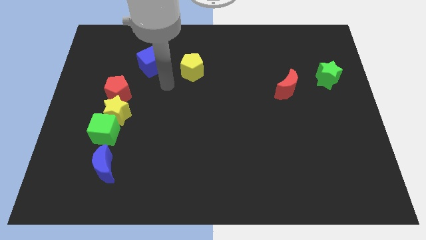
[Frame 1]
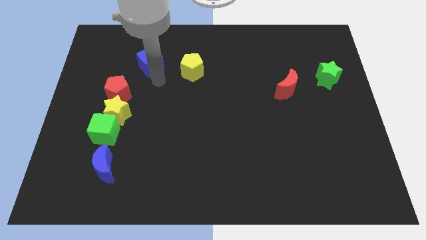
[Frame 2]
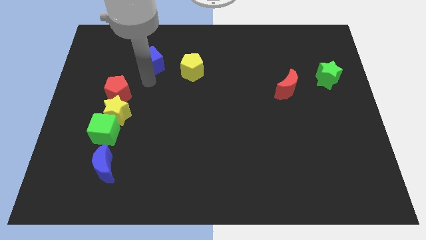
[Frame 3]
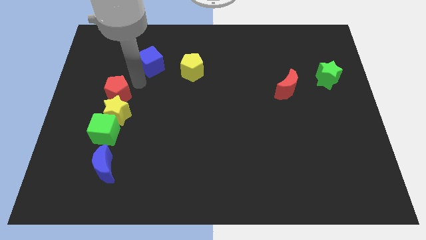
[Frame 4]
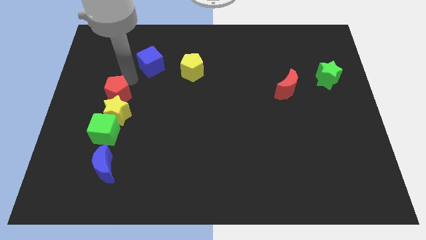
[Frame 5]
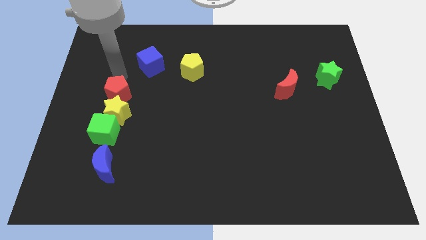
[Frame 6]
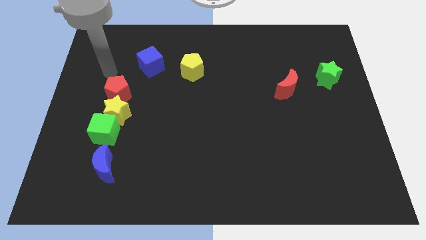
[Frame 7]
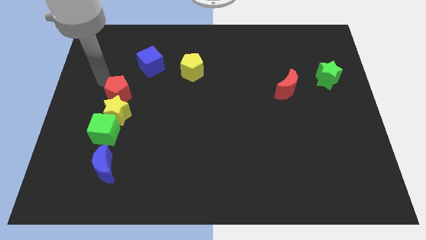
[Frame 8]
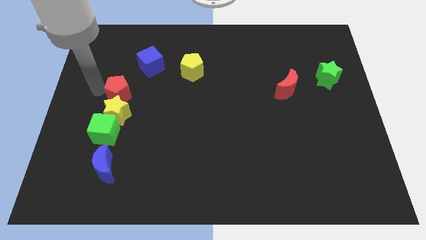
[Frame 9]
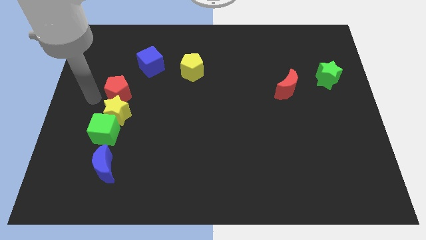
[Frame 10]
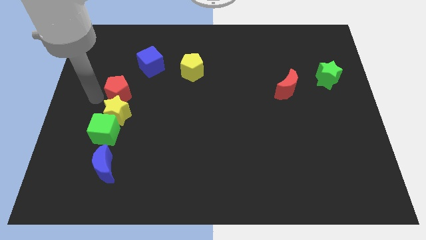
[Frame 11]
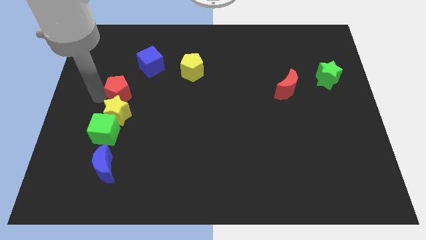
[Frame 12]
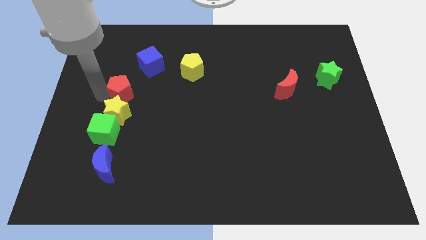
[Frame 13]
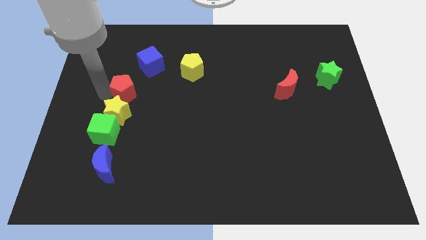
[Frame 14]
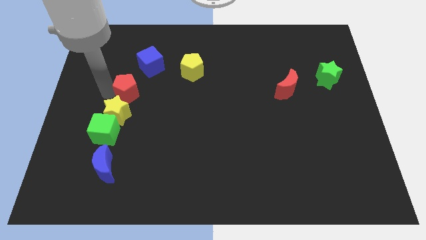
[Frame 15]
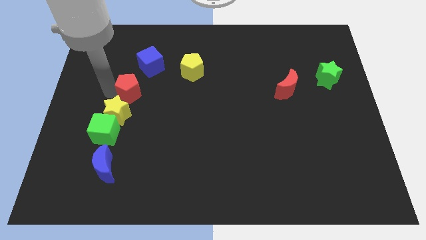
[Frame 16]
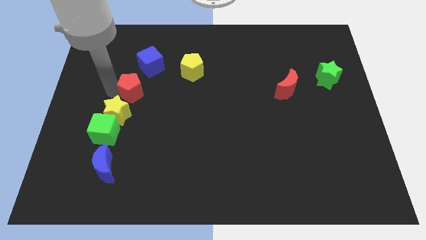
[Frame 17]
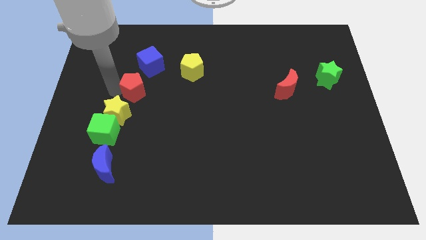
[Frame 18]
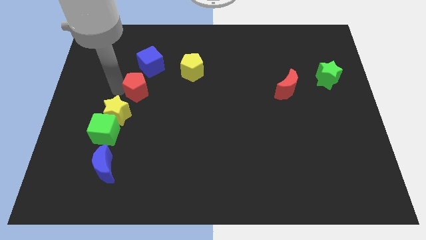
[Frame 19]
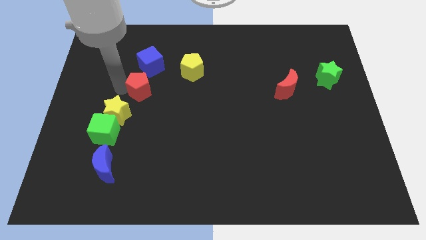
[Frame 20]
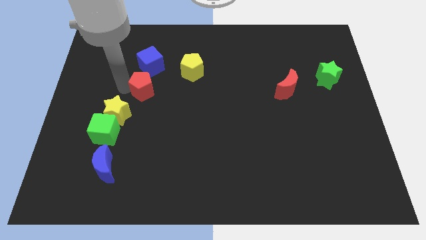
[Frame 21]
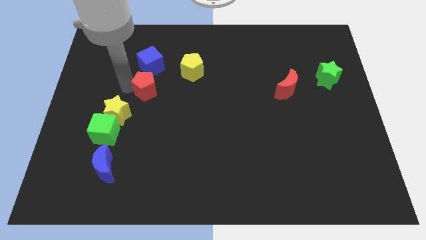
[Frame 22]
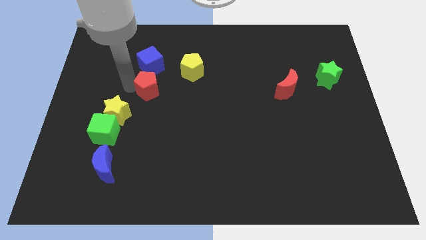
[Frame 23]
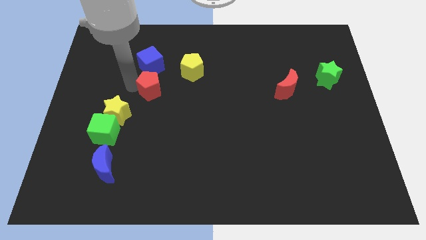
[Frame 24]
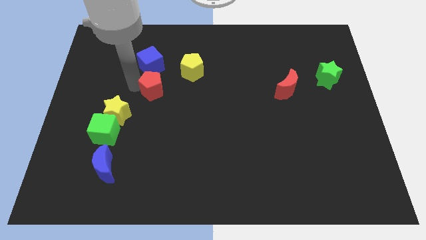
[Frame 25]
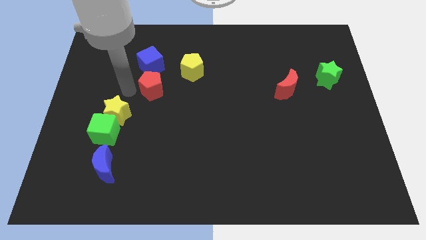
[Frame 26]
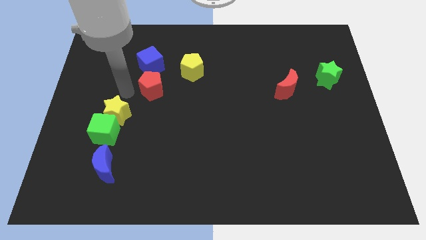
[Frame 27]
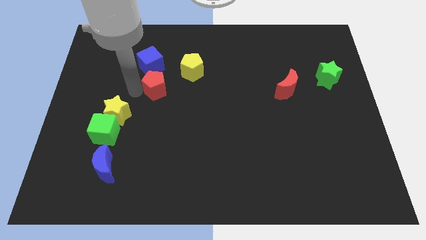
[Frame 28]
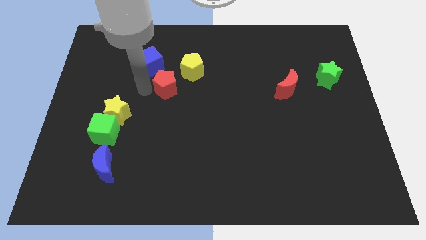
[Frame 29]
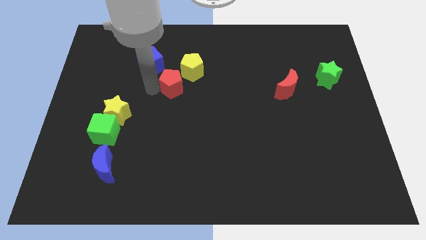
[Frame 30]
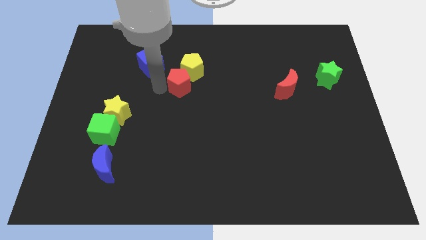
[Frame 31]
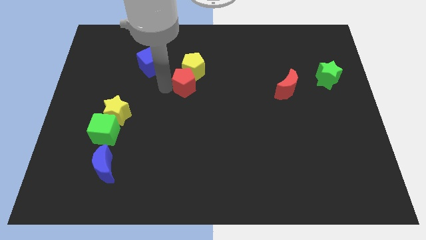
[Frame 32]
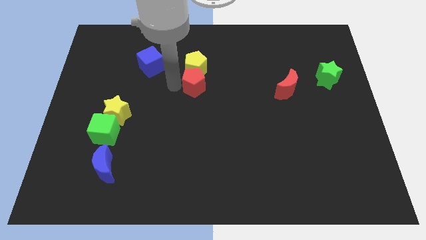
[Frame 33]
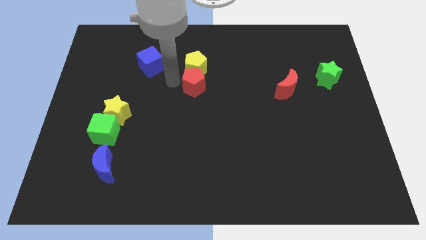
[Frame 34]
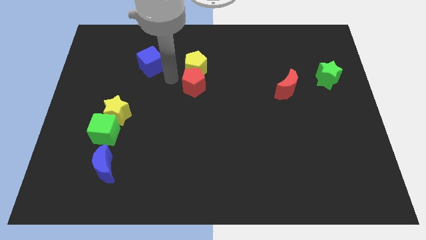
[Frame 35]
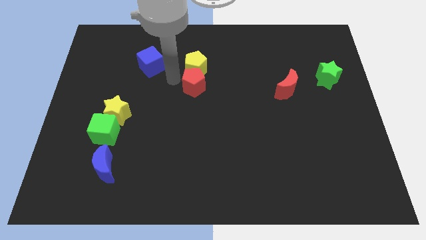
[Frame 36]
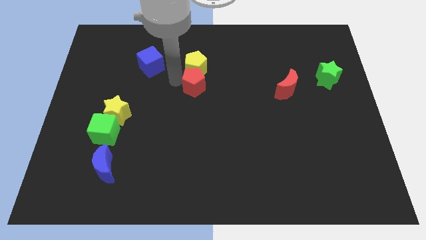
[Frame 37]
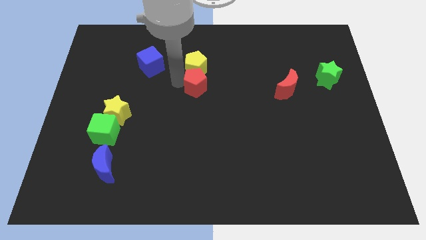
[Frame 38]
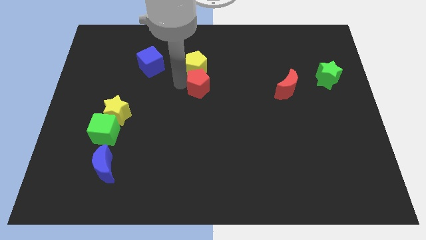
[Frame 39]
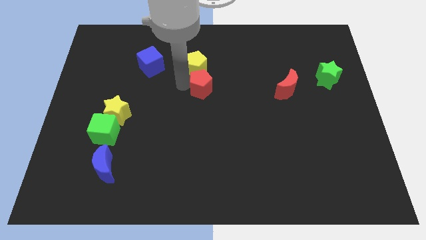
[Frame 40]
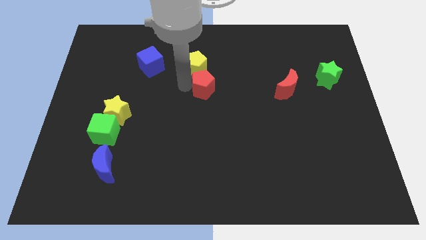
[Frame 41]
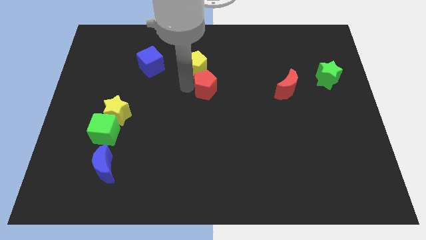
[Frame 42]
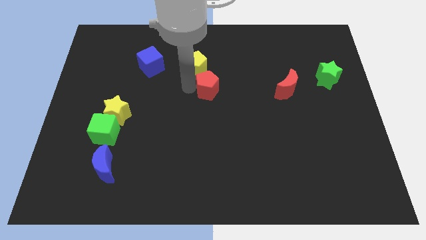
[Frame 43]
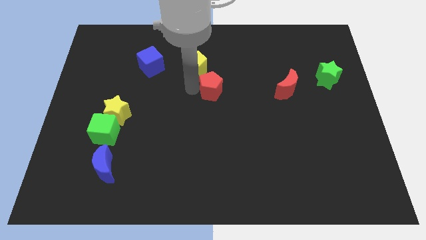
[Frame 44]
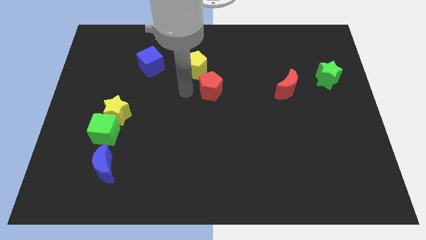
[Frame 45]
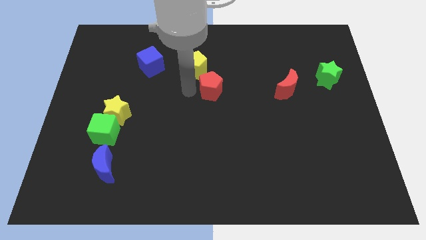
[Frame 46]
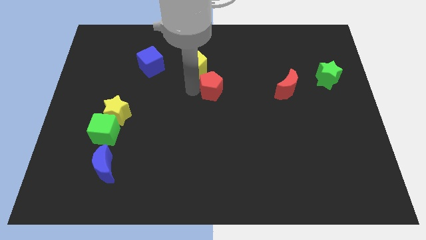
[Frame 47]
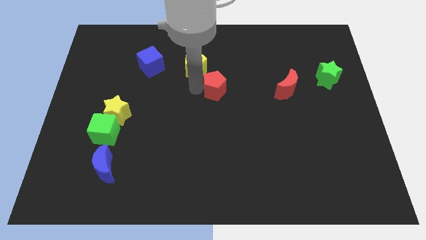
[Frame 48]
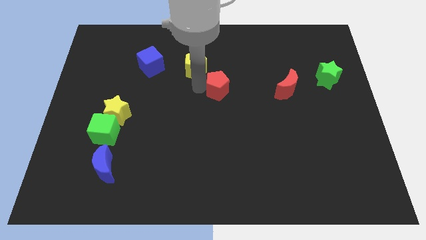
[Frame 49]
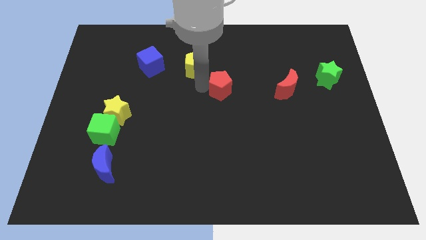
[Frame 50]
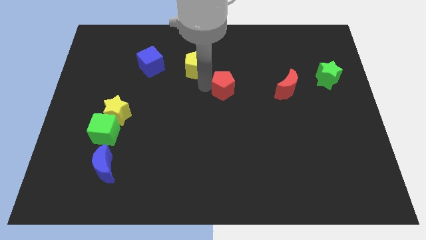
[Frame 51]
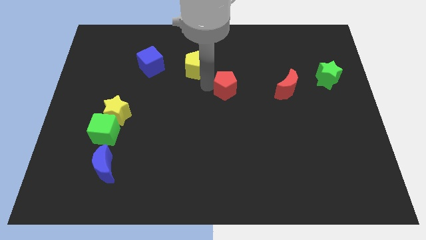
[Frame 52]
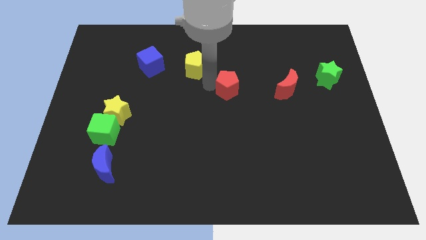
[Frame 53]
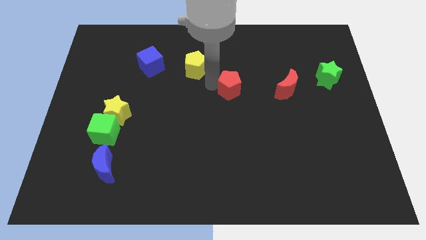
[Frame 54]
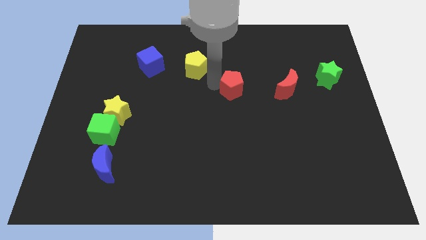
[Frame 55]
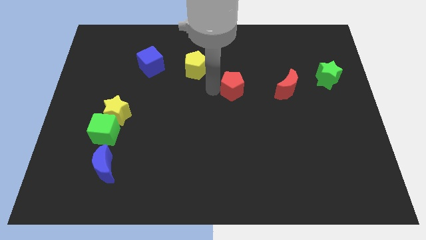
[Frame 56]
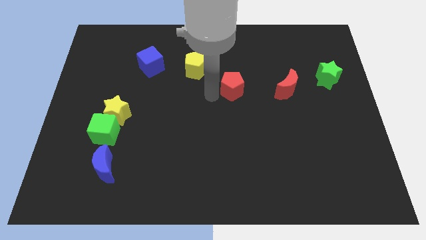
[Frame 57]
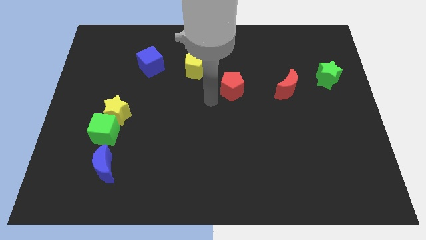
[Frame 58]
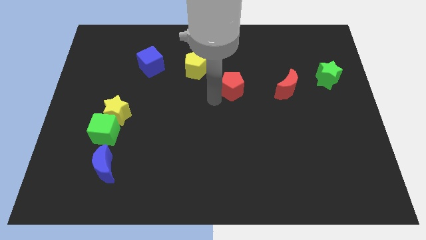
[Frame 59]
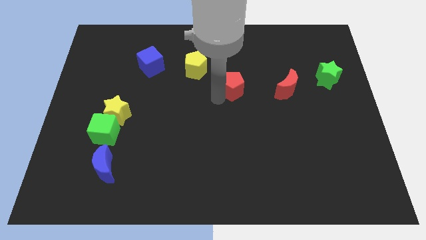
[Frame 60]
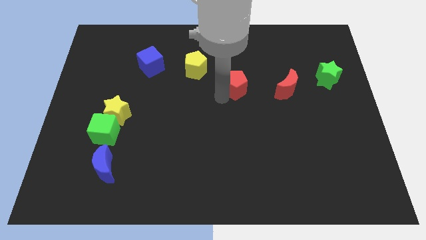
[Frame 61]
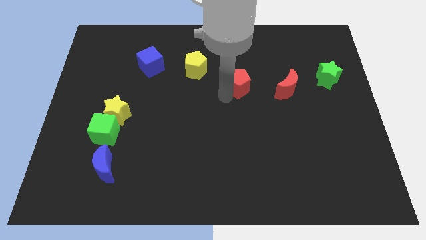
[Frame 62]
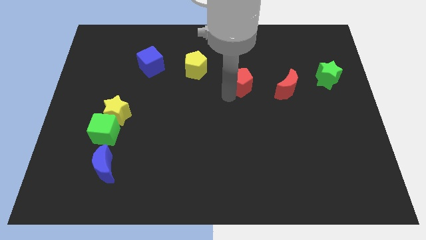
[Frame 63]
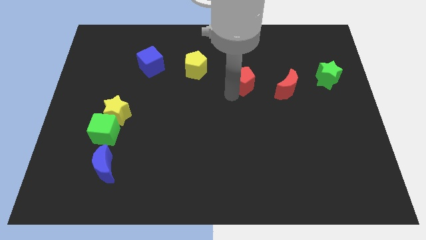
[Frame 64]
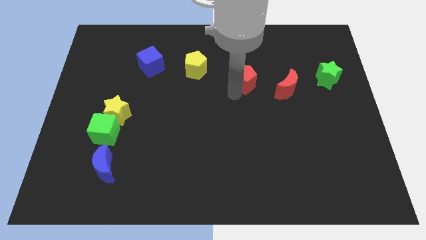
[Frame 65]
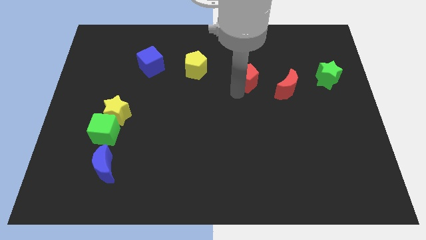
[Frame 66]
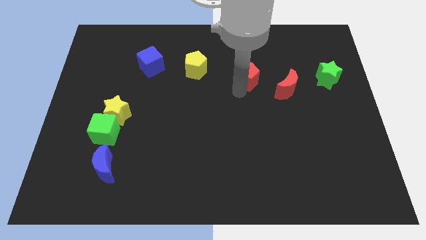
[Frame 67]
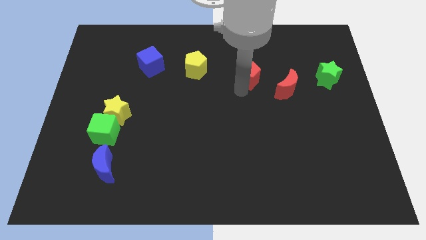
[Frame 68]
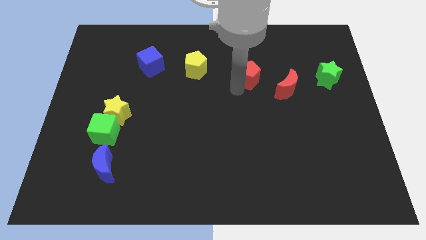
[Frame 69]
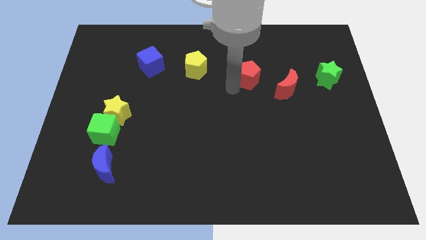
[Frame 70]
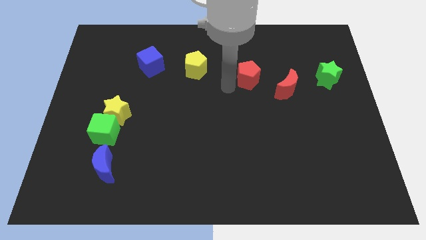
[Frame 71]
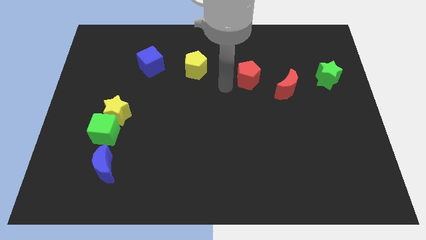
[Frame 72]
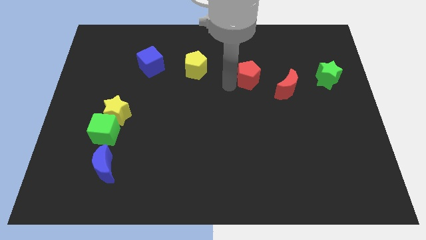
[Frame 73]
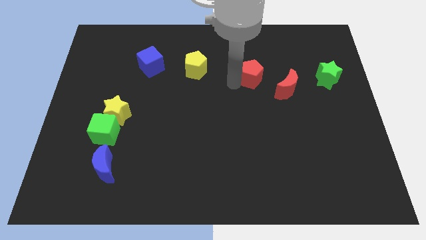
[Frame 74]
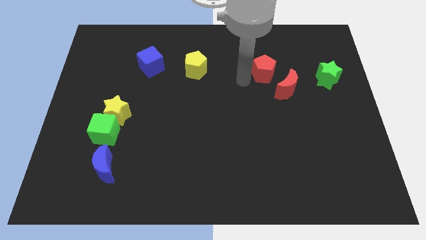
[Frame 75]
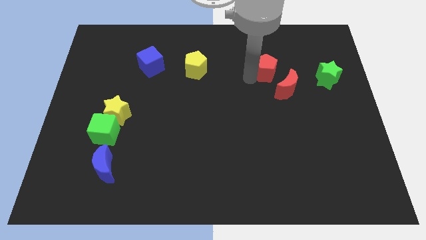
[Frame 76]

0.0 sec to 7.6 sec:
slide the red pentagon to the top side of the red moon
